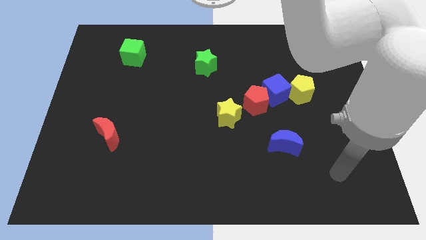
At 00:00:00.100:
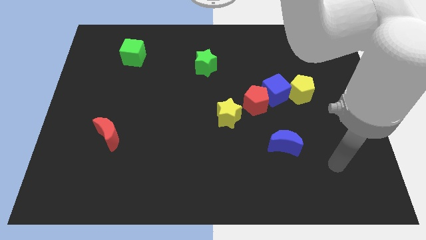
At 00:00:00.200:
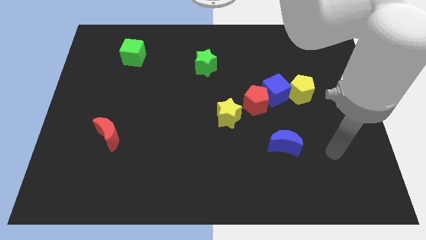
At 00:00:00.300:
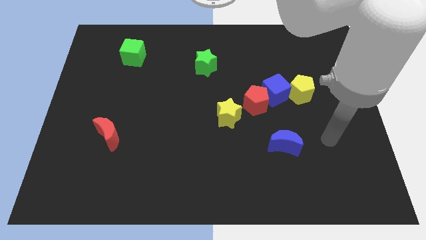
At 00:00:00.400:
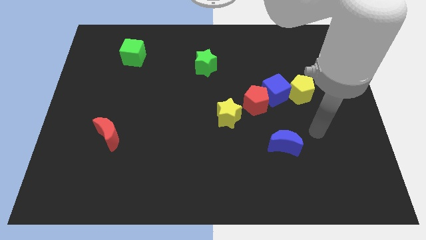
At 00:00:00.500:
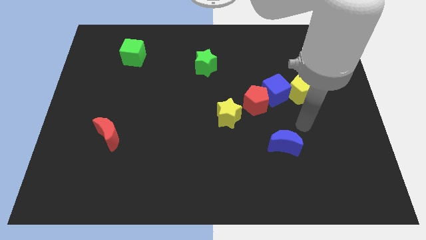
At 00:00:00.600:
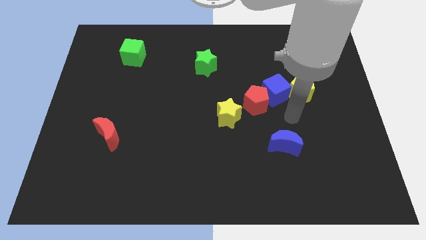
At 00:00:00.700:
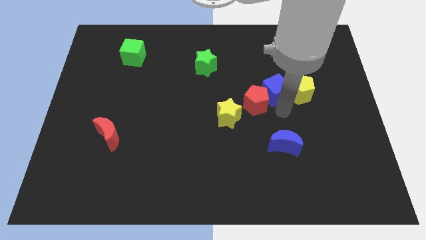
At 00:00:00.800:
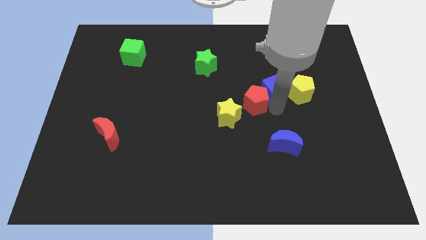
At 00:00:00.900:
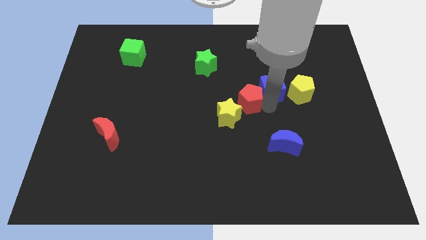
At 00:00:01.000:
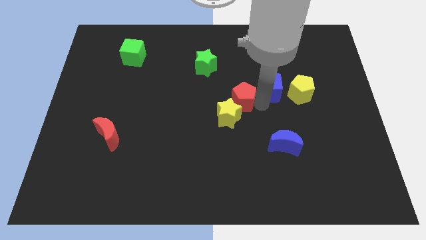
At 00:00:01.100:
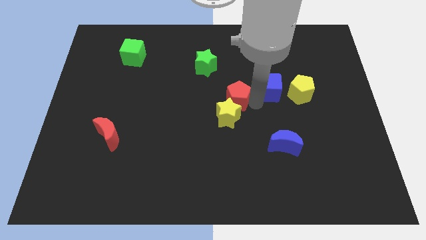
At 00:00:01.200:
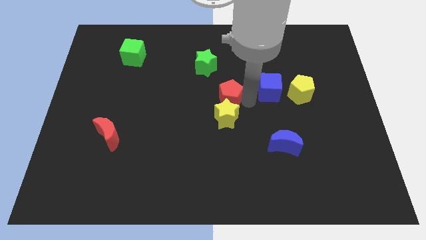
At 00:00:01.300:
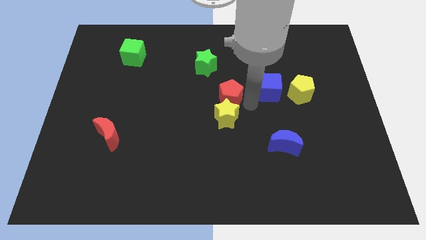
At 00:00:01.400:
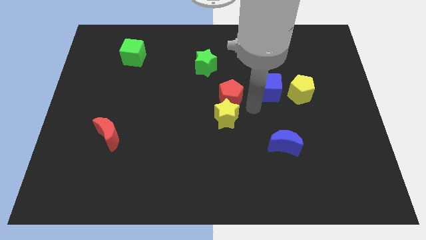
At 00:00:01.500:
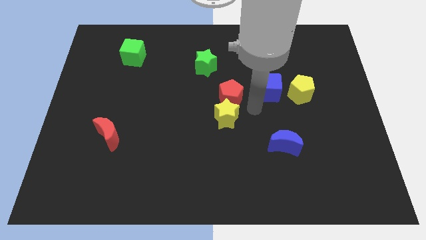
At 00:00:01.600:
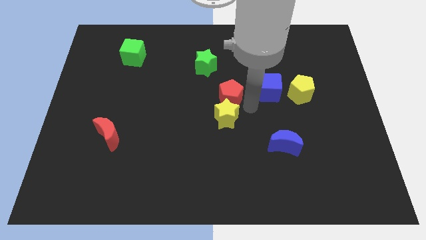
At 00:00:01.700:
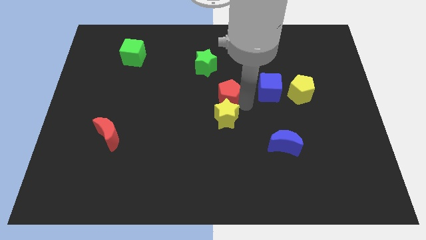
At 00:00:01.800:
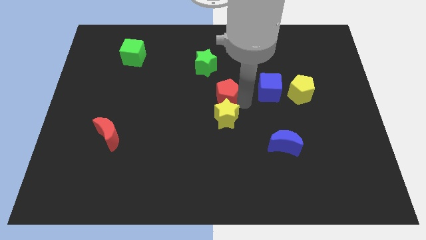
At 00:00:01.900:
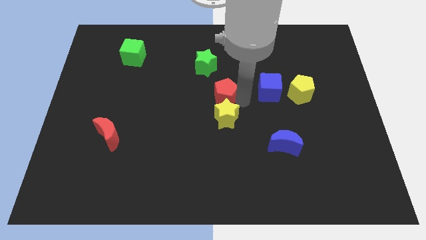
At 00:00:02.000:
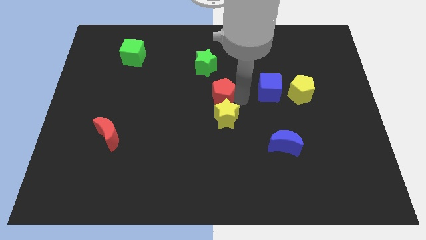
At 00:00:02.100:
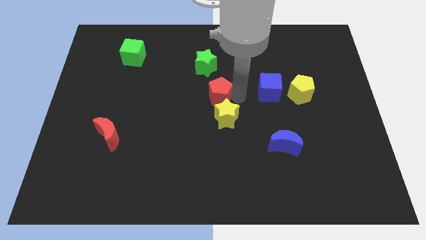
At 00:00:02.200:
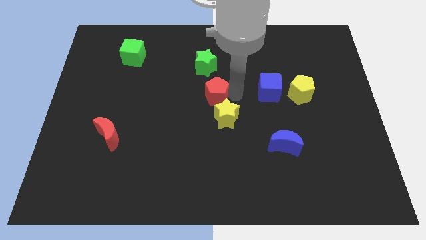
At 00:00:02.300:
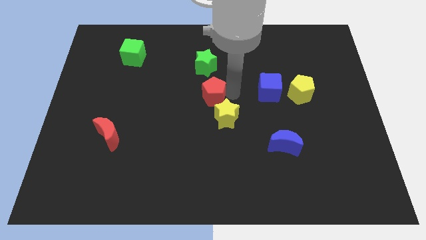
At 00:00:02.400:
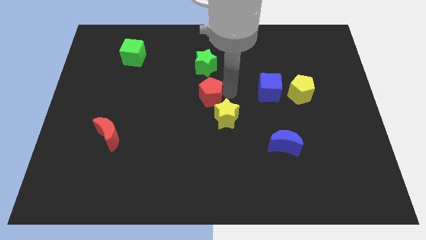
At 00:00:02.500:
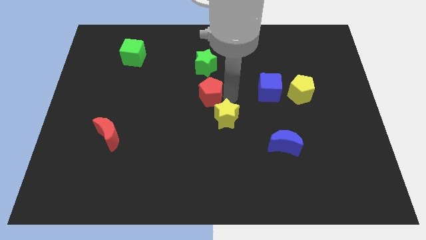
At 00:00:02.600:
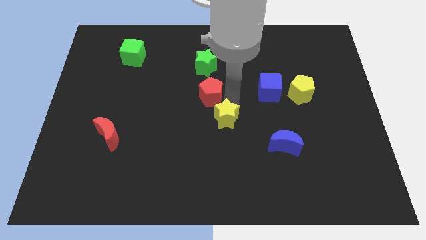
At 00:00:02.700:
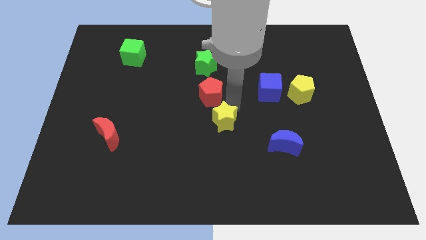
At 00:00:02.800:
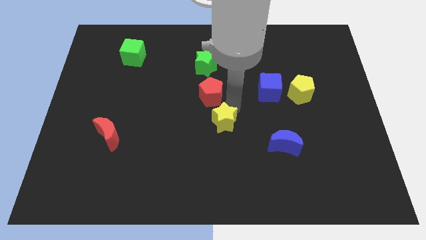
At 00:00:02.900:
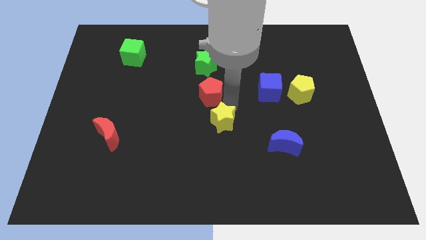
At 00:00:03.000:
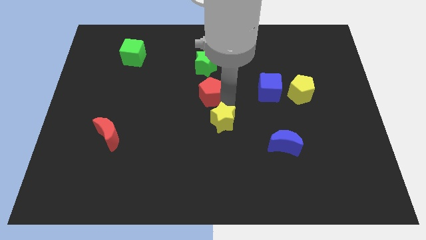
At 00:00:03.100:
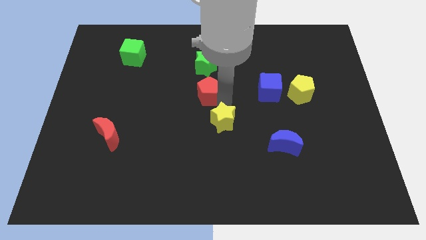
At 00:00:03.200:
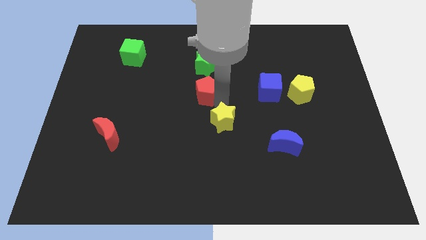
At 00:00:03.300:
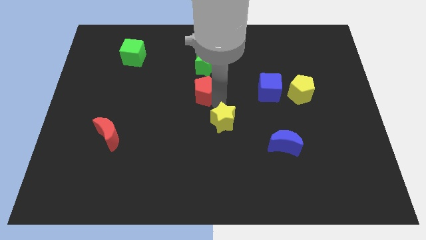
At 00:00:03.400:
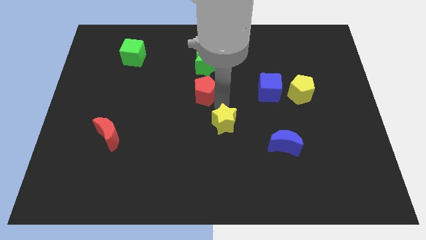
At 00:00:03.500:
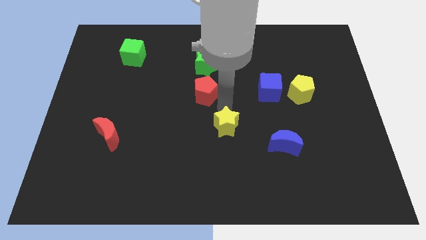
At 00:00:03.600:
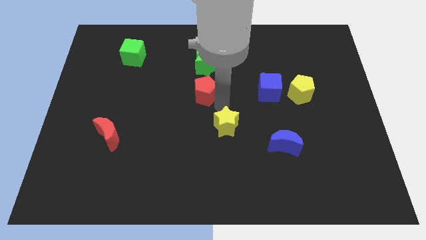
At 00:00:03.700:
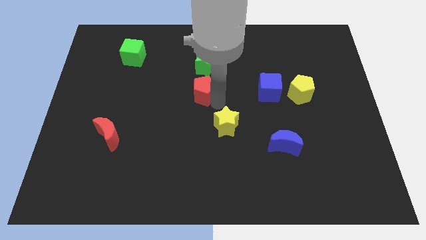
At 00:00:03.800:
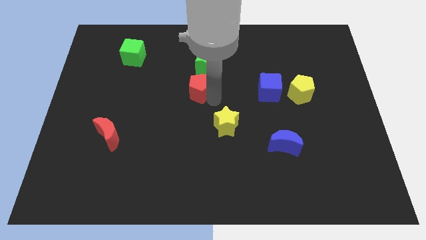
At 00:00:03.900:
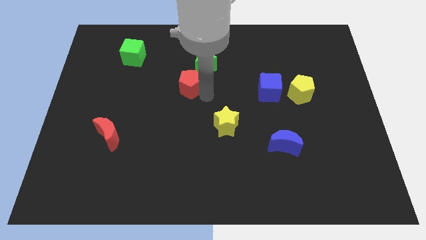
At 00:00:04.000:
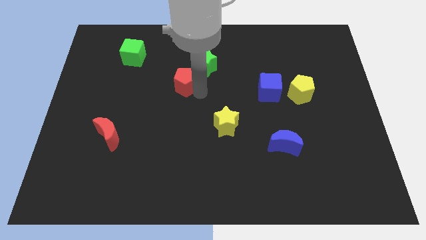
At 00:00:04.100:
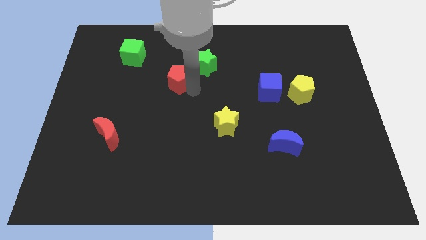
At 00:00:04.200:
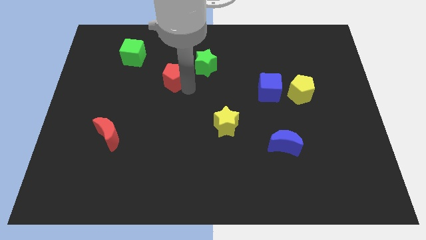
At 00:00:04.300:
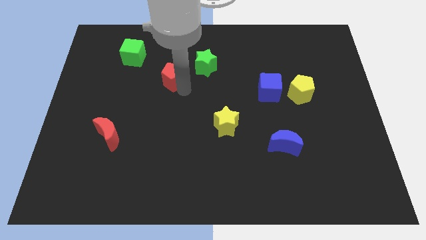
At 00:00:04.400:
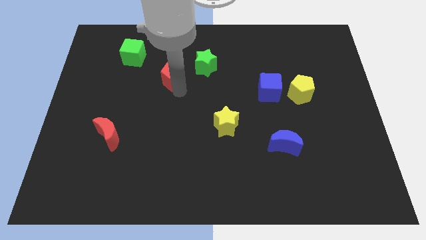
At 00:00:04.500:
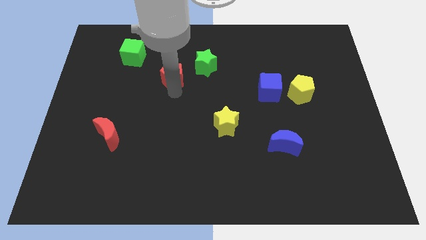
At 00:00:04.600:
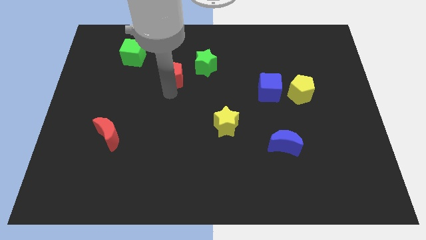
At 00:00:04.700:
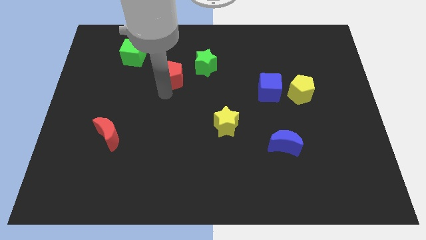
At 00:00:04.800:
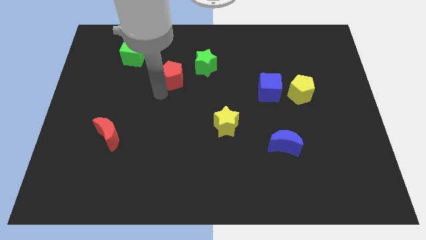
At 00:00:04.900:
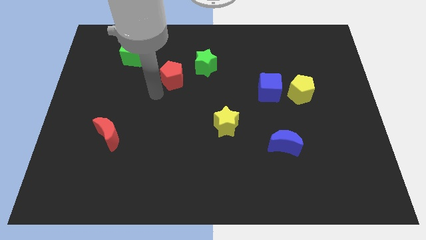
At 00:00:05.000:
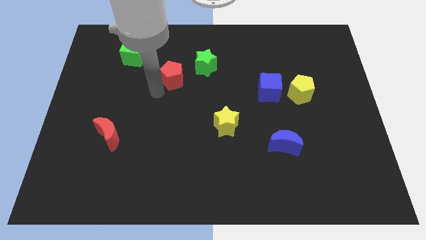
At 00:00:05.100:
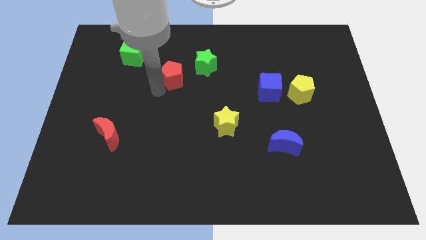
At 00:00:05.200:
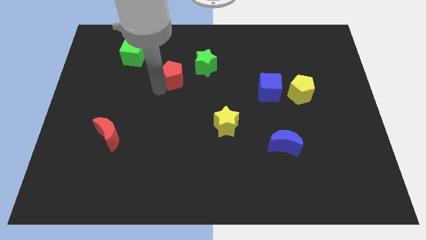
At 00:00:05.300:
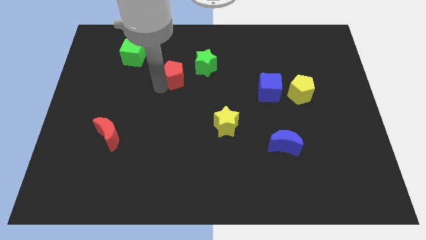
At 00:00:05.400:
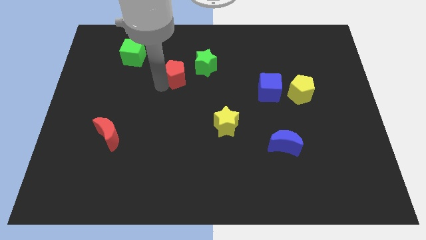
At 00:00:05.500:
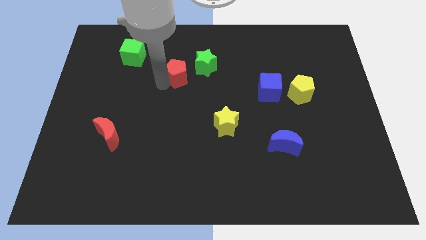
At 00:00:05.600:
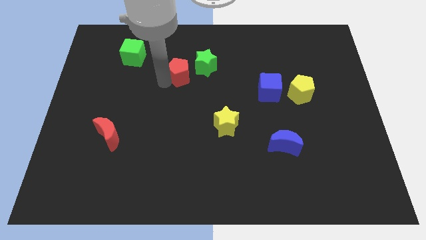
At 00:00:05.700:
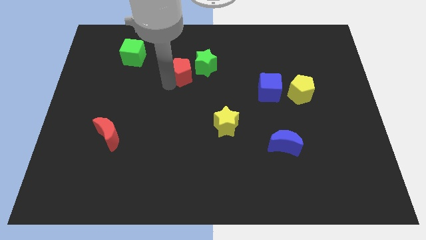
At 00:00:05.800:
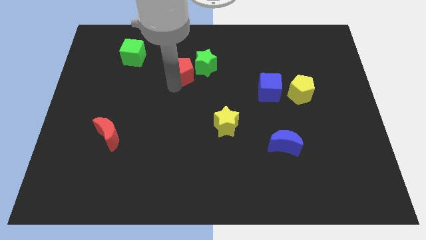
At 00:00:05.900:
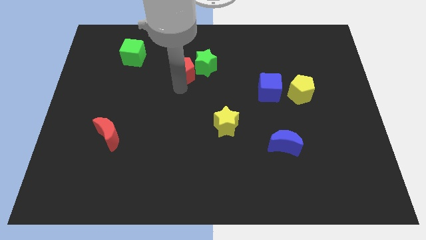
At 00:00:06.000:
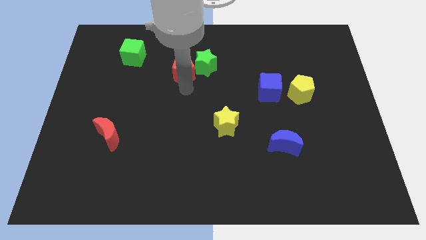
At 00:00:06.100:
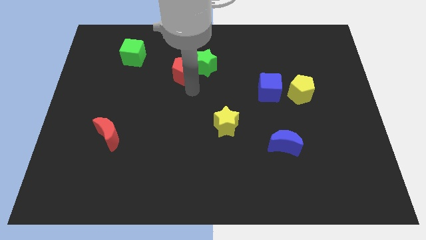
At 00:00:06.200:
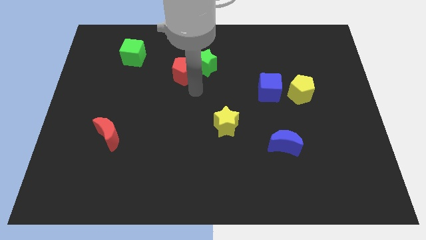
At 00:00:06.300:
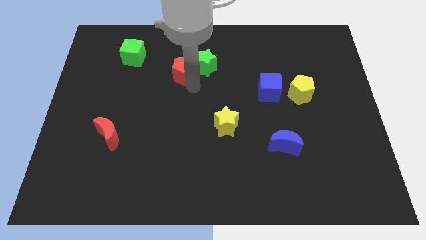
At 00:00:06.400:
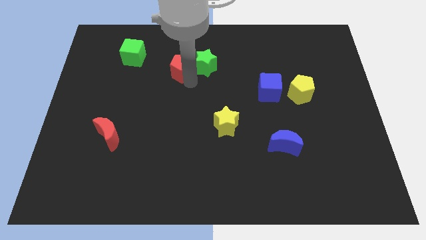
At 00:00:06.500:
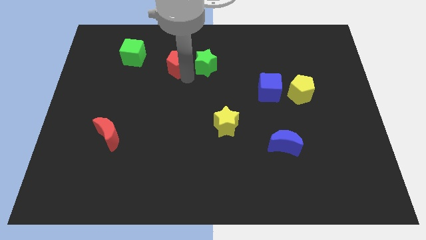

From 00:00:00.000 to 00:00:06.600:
slide the red pentagon to the right side of the green cube
